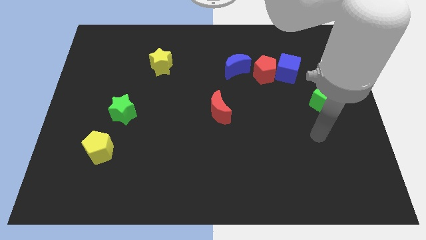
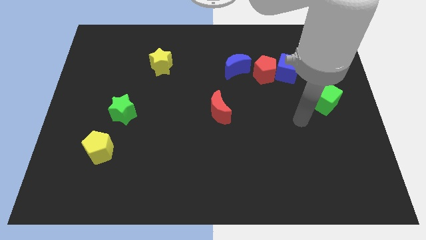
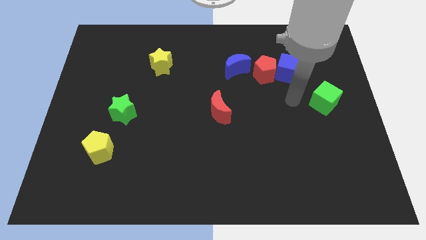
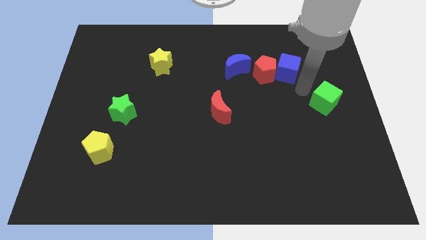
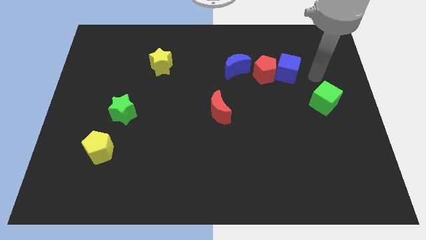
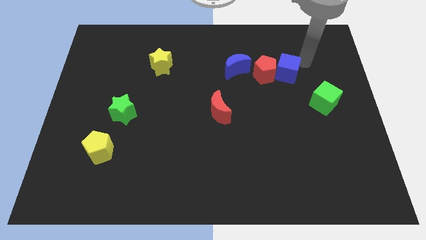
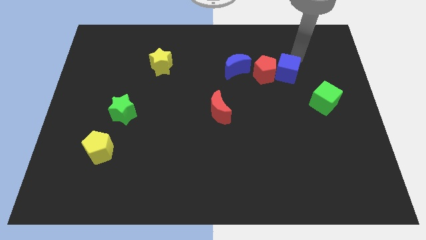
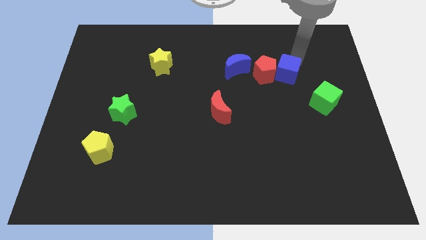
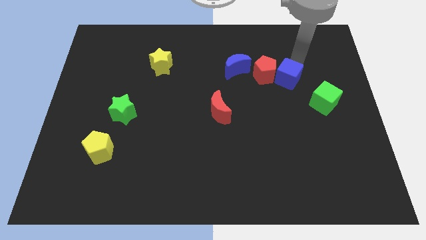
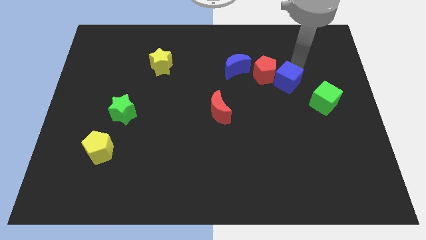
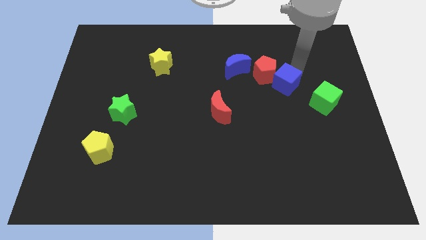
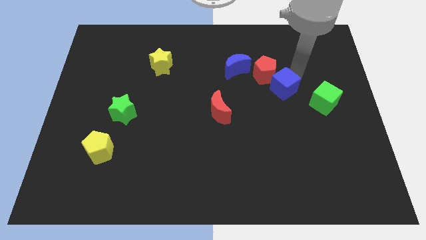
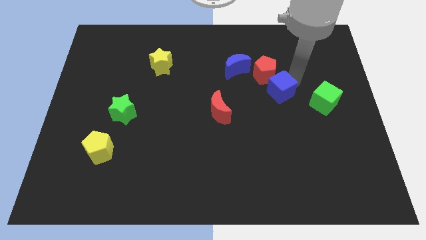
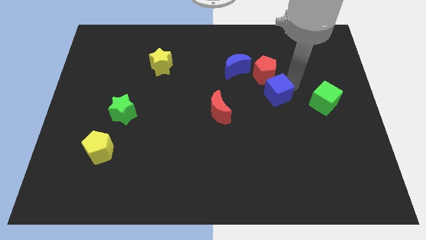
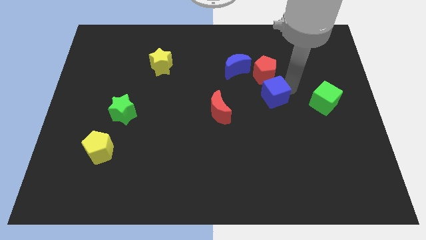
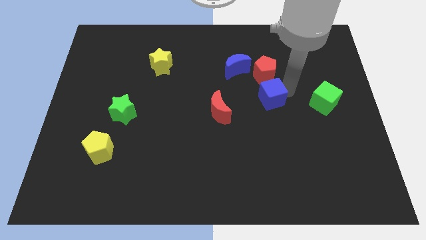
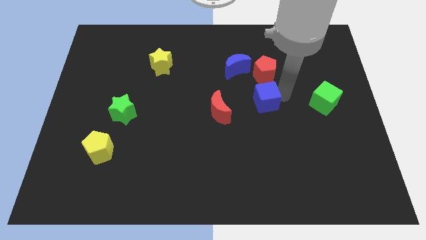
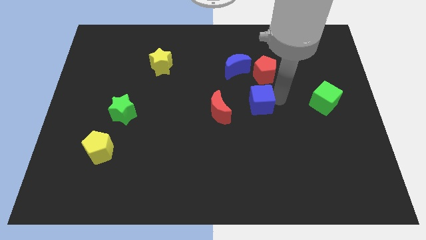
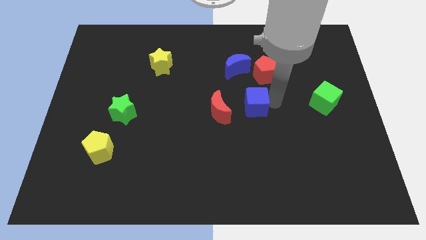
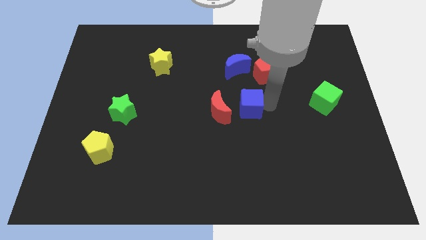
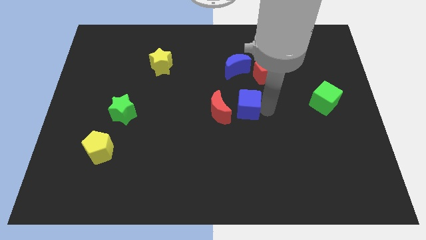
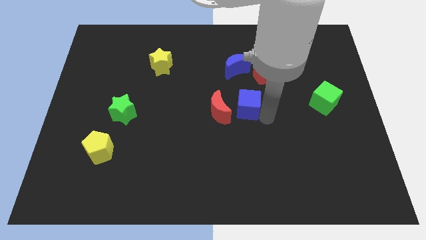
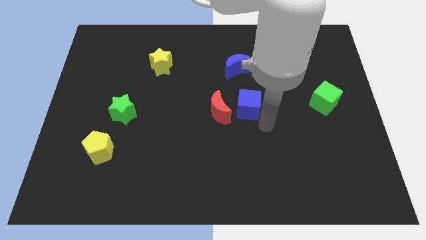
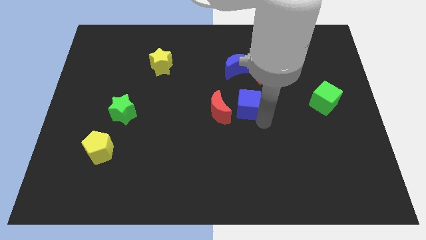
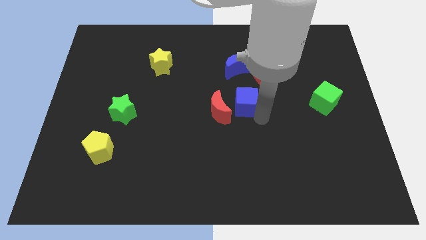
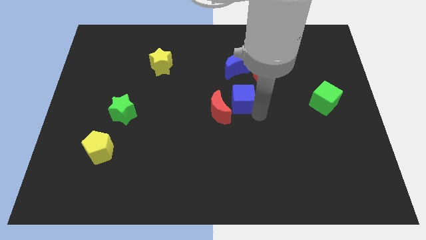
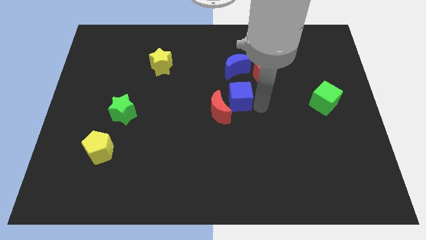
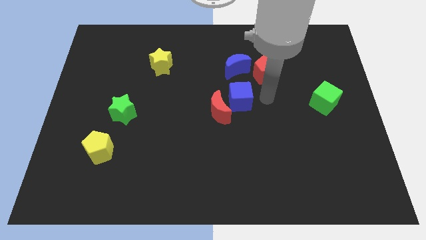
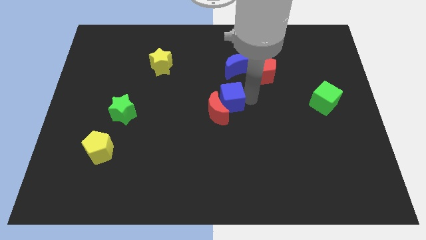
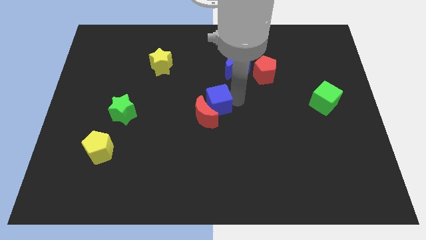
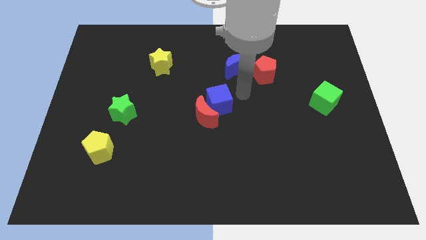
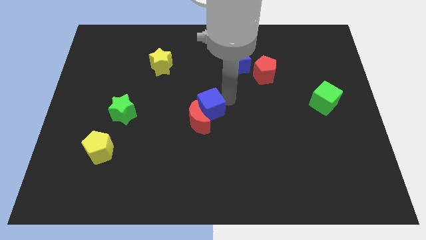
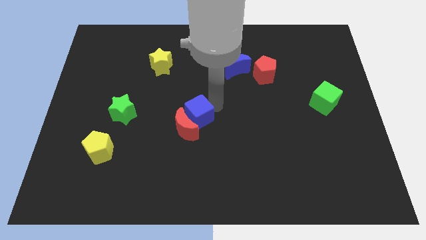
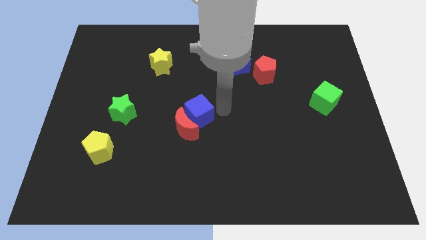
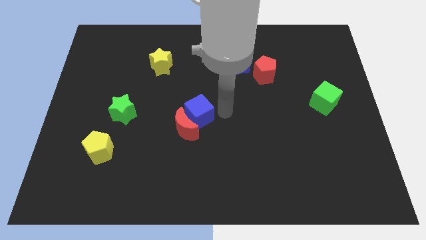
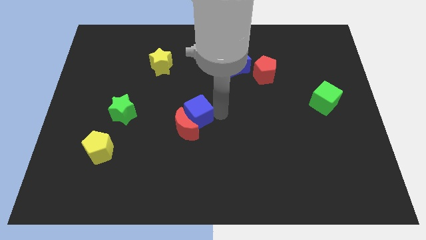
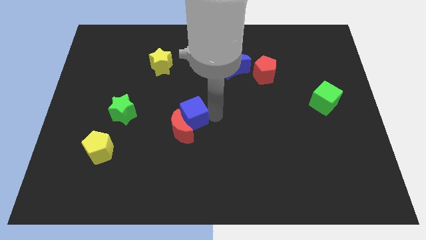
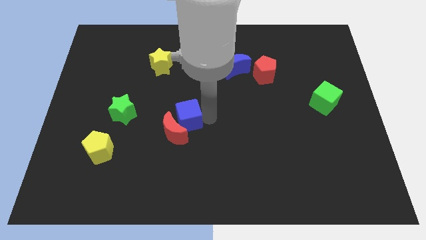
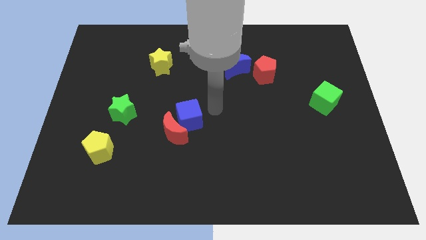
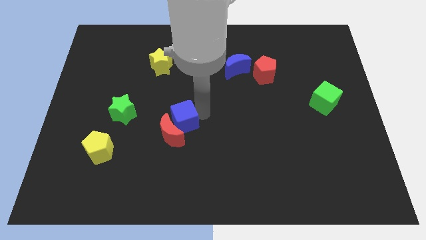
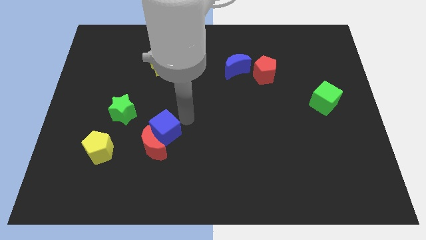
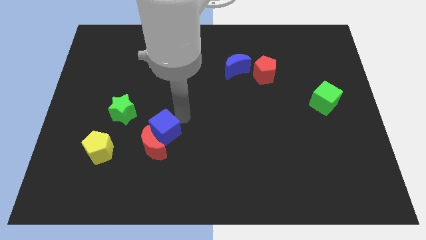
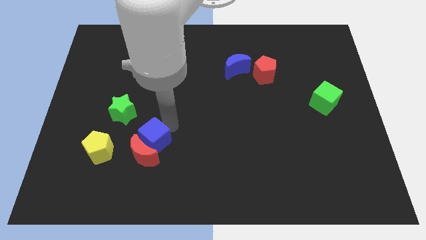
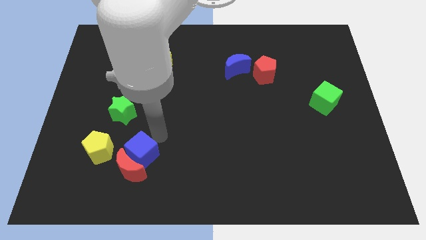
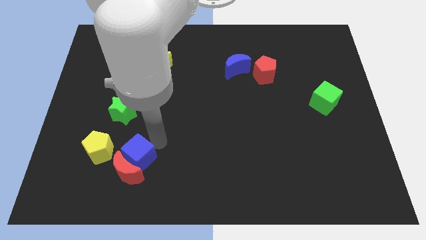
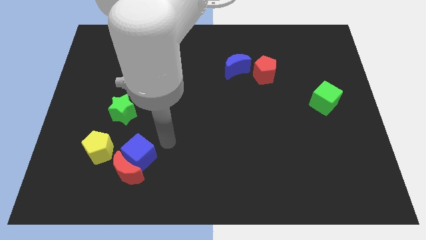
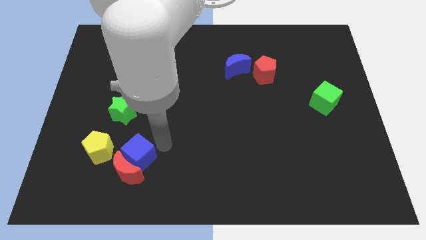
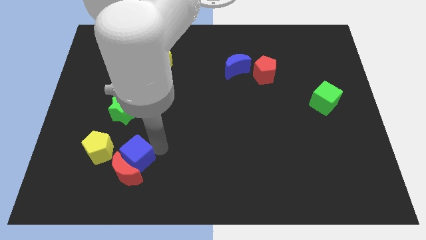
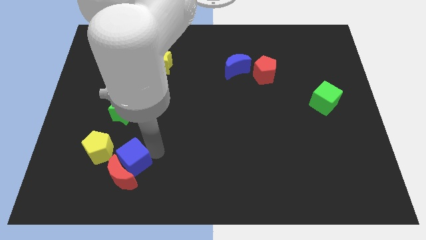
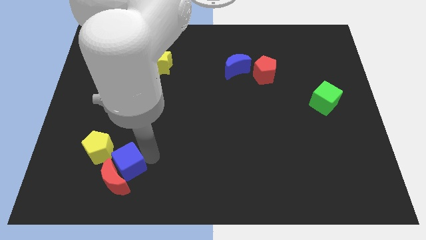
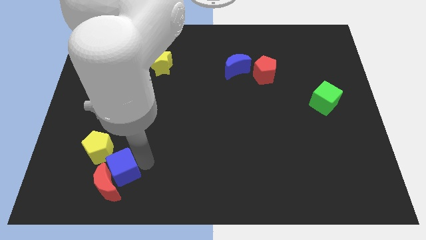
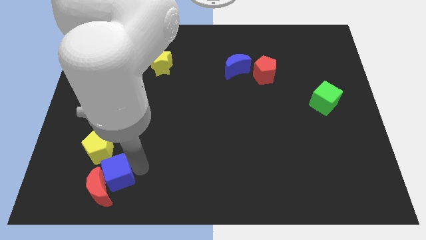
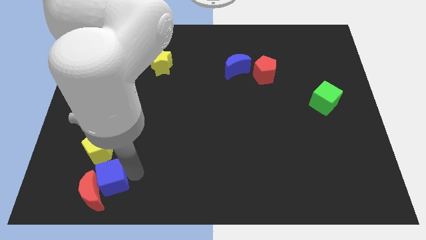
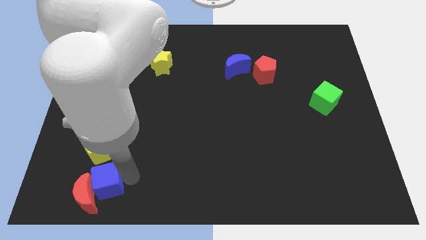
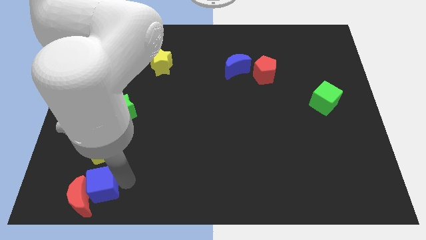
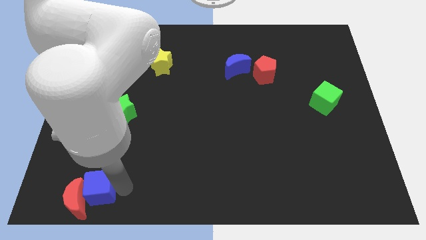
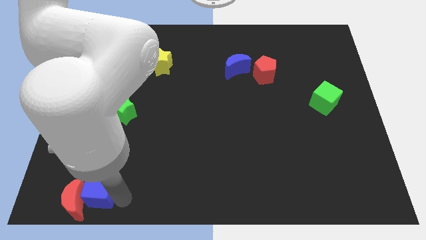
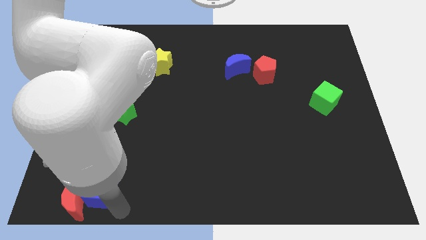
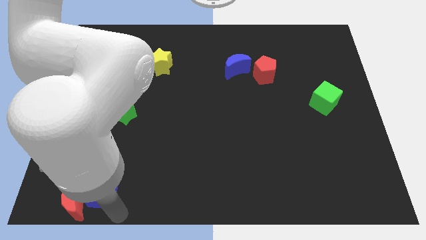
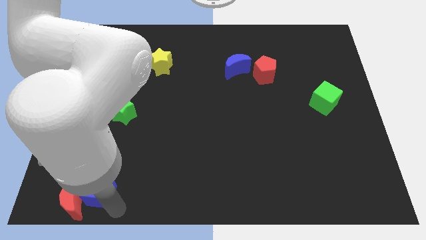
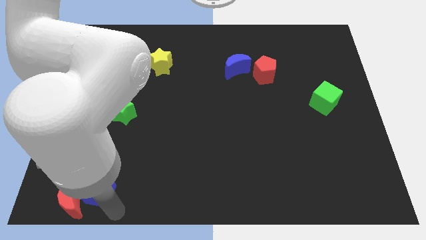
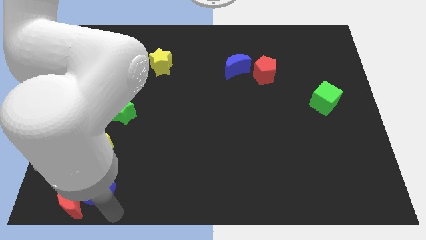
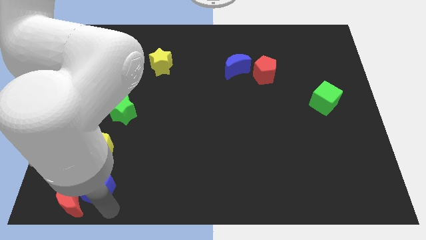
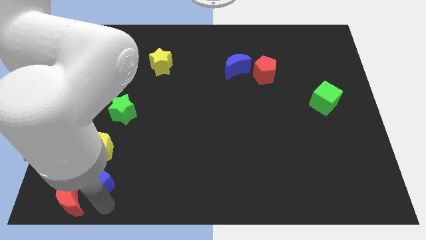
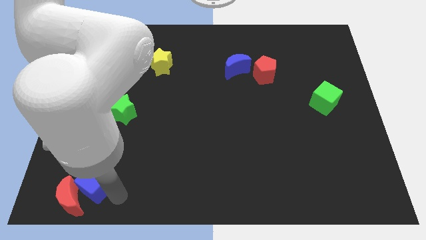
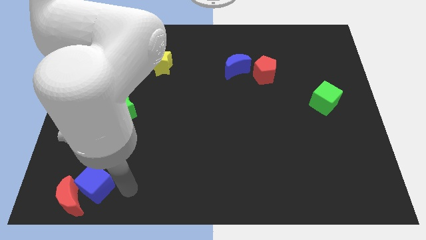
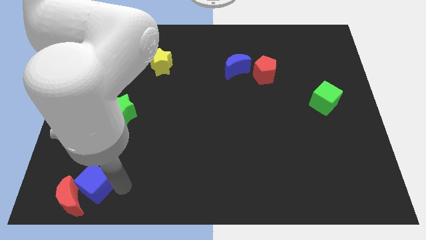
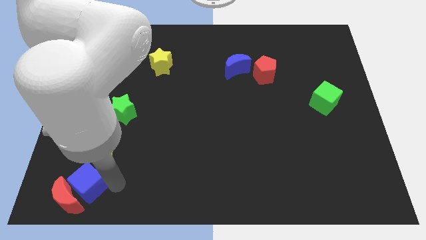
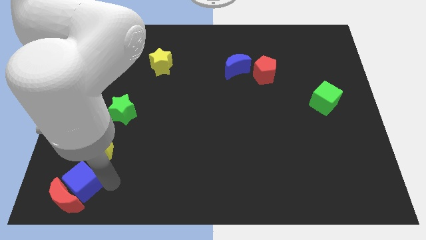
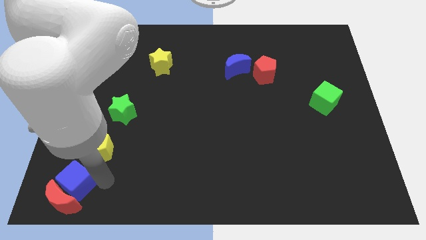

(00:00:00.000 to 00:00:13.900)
put the blue cube to the bottom left of the board
